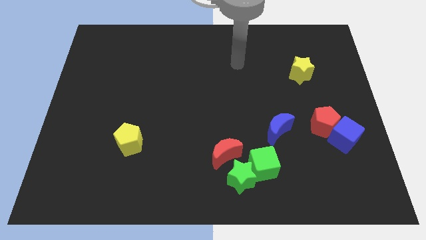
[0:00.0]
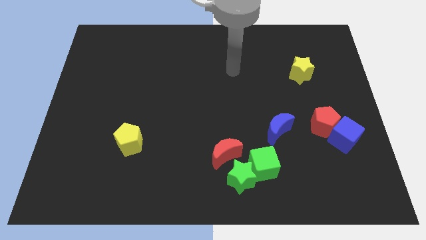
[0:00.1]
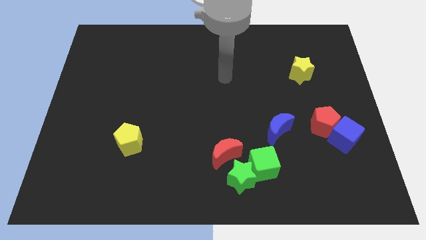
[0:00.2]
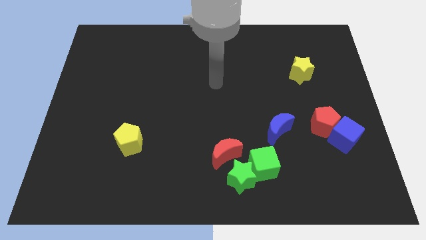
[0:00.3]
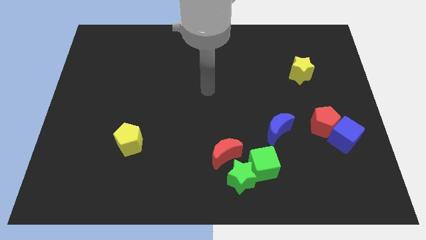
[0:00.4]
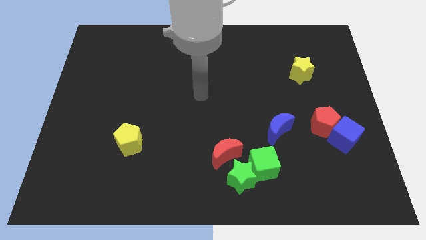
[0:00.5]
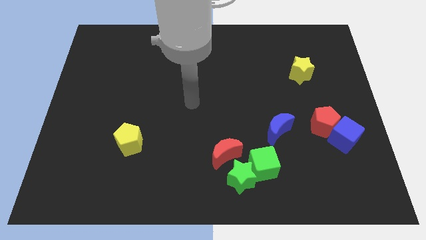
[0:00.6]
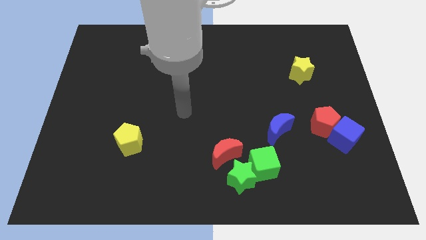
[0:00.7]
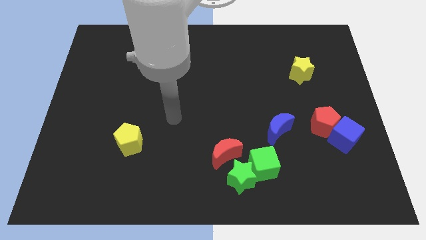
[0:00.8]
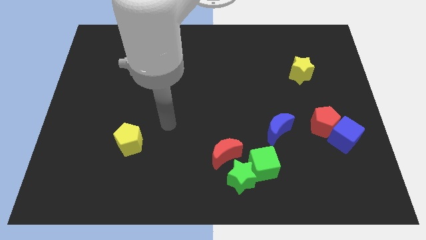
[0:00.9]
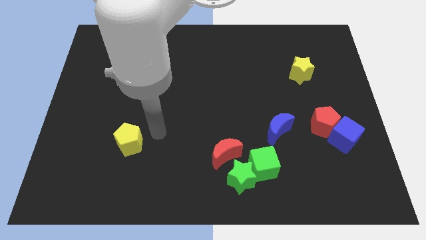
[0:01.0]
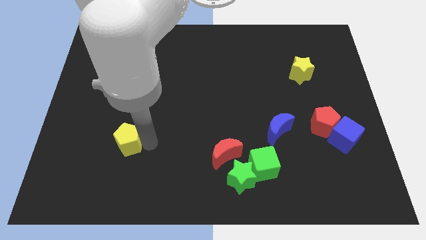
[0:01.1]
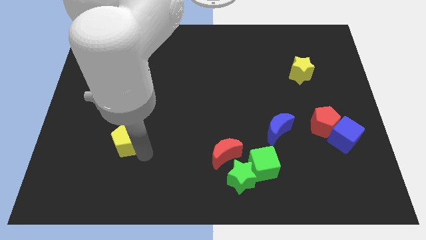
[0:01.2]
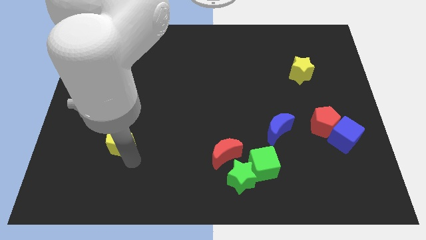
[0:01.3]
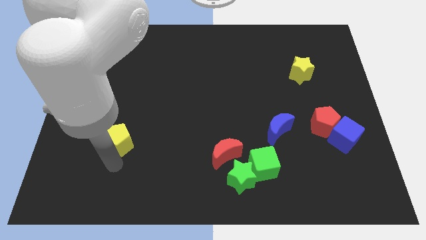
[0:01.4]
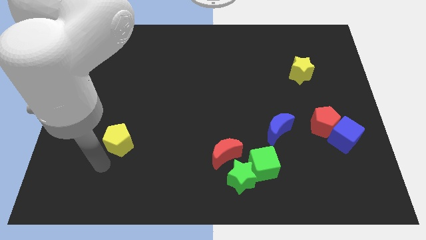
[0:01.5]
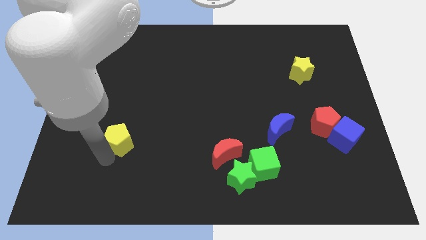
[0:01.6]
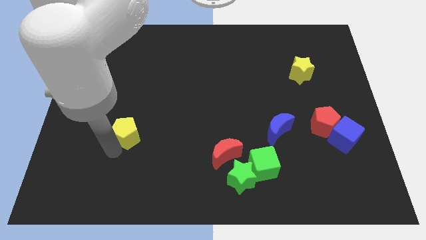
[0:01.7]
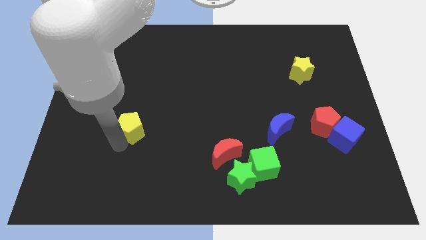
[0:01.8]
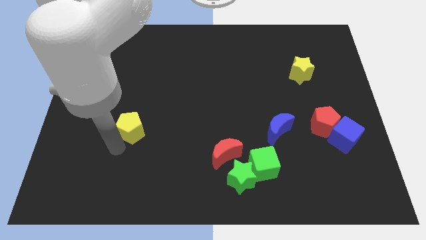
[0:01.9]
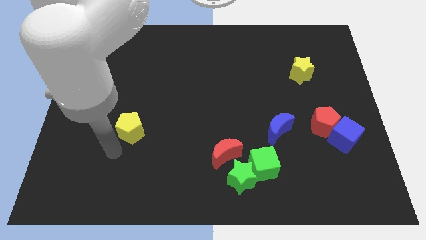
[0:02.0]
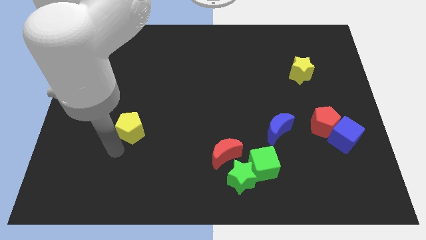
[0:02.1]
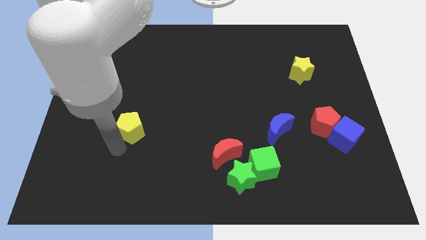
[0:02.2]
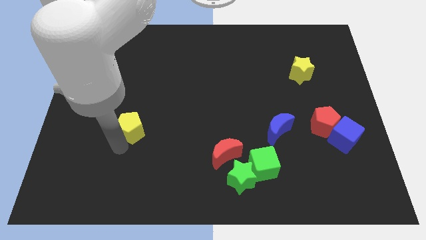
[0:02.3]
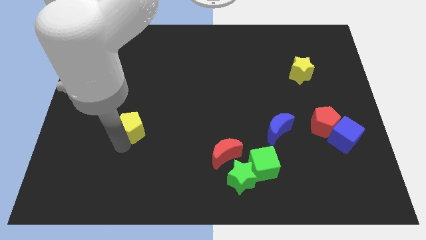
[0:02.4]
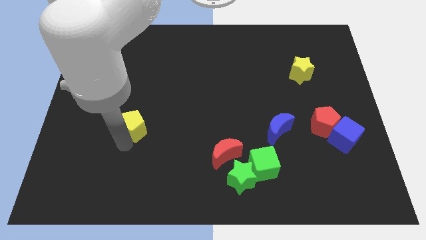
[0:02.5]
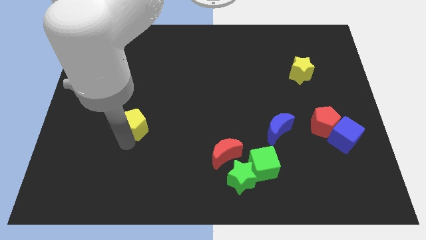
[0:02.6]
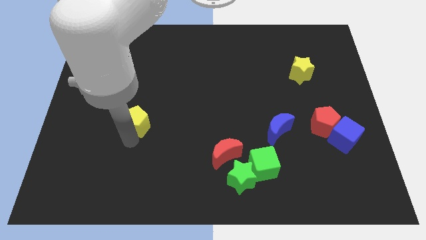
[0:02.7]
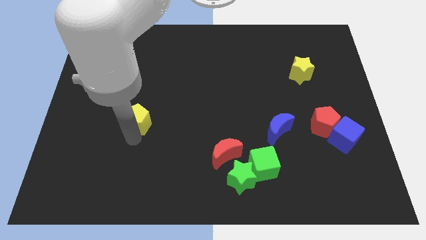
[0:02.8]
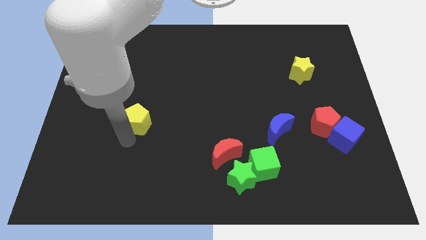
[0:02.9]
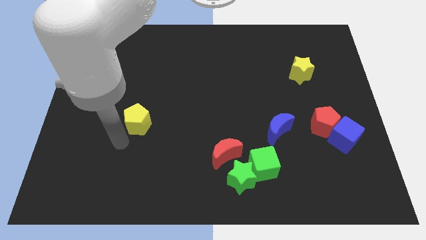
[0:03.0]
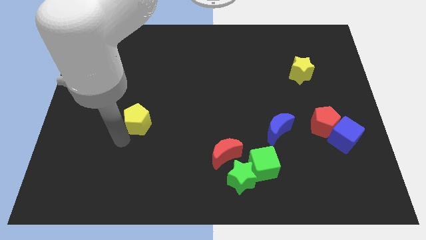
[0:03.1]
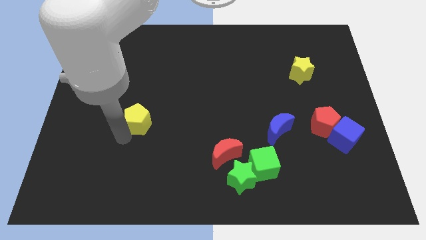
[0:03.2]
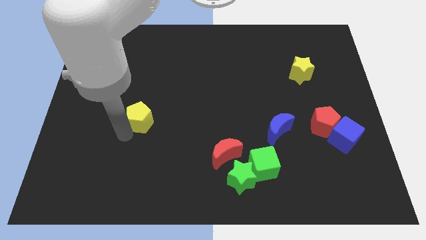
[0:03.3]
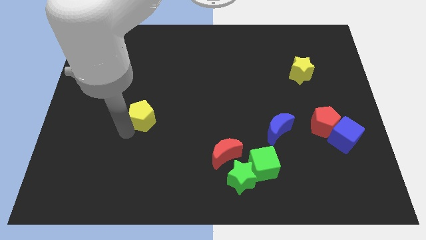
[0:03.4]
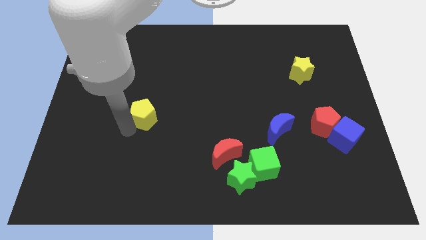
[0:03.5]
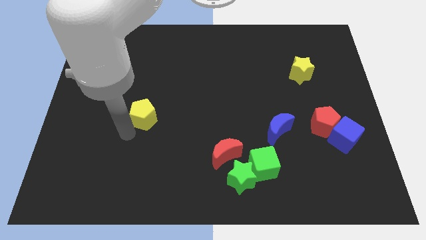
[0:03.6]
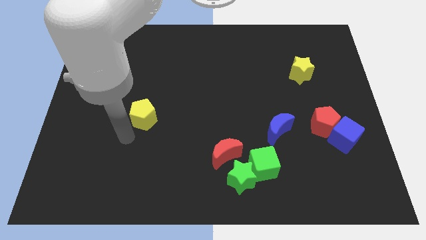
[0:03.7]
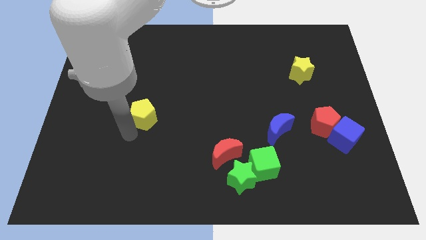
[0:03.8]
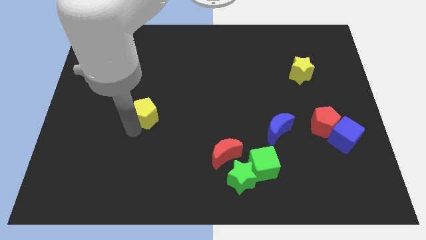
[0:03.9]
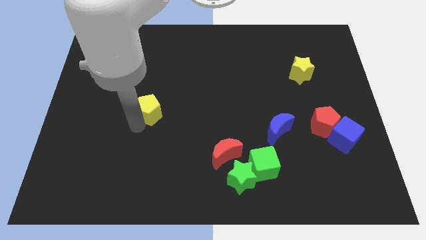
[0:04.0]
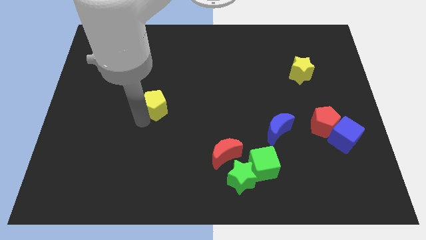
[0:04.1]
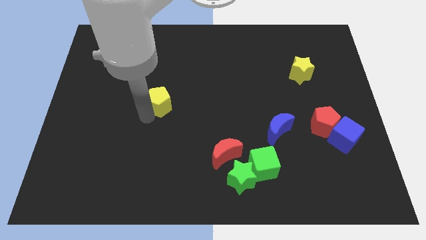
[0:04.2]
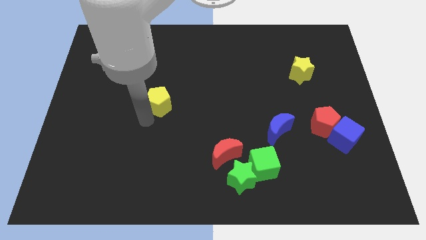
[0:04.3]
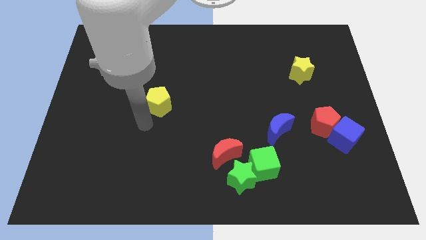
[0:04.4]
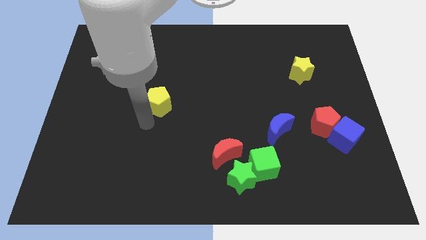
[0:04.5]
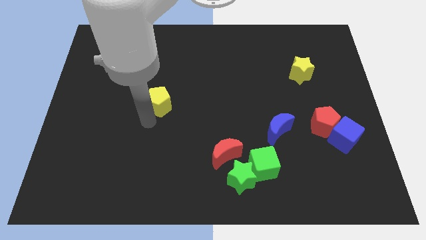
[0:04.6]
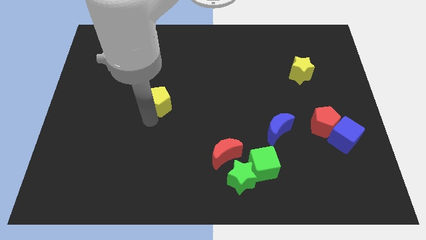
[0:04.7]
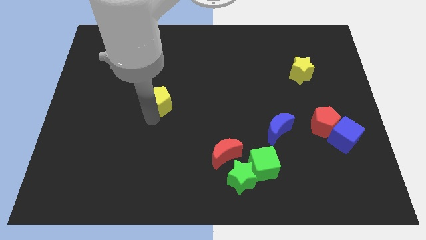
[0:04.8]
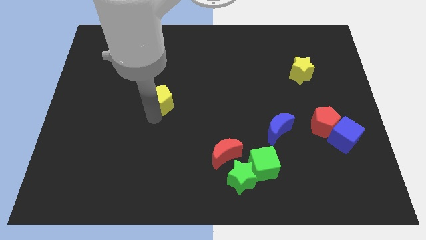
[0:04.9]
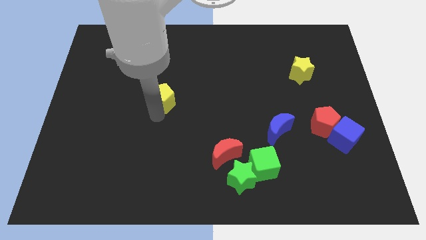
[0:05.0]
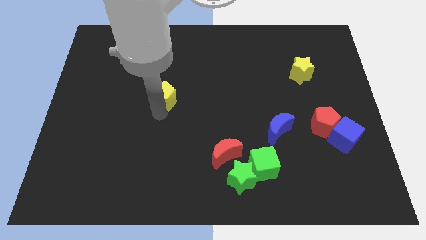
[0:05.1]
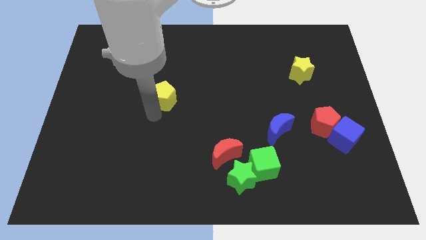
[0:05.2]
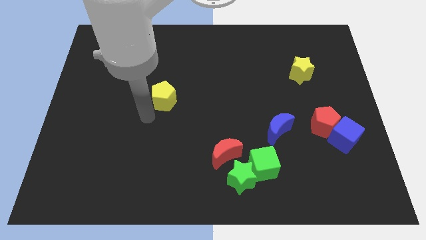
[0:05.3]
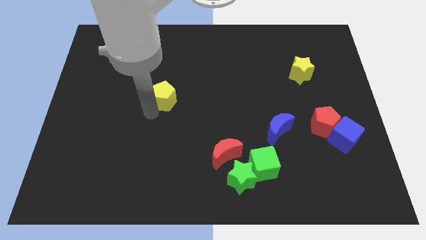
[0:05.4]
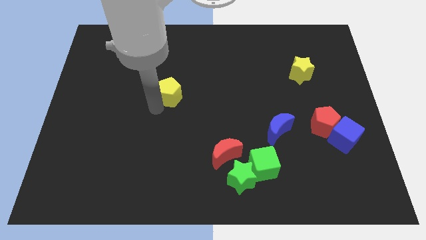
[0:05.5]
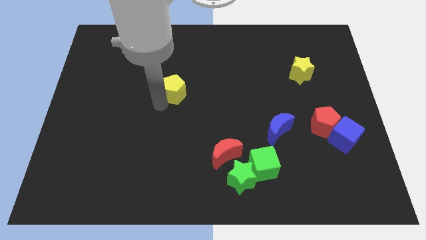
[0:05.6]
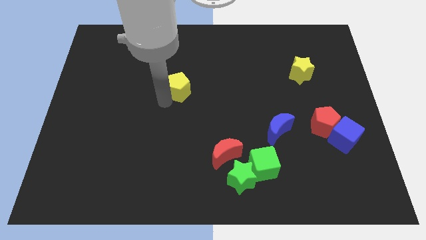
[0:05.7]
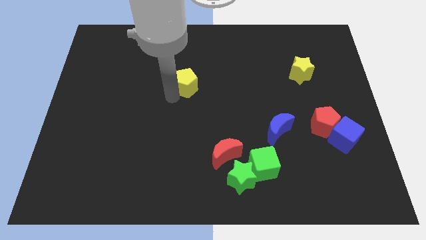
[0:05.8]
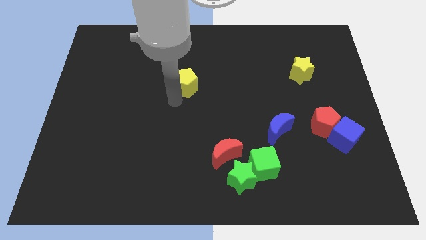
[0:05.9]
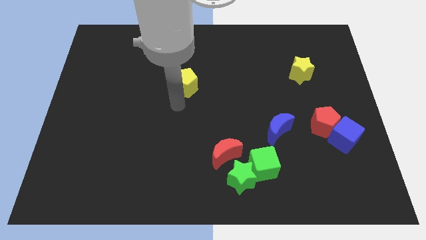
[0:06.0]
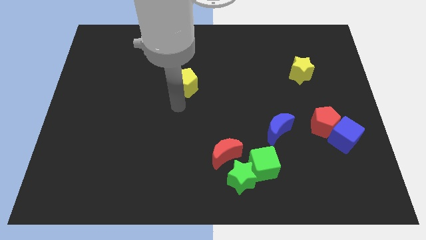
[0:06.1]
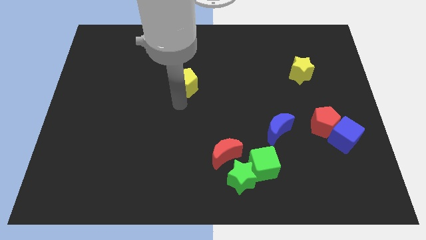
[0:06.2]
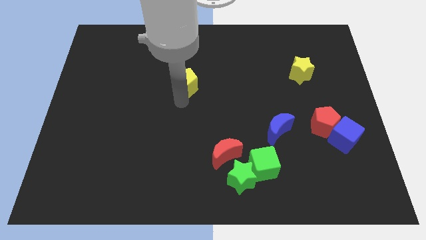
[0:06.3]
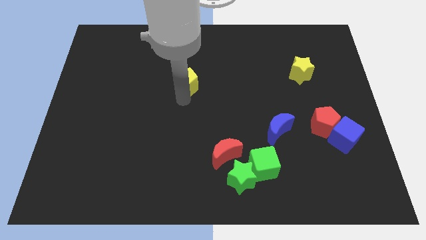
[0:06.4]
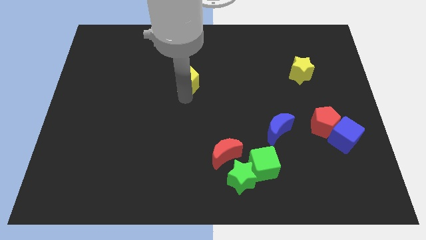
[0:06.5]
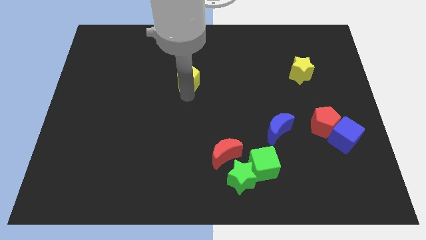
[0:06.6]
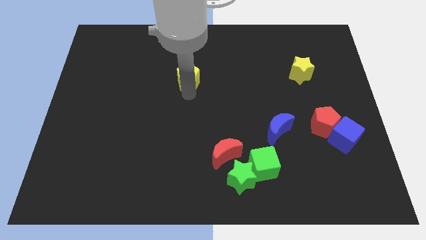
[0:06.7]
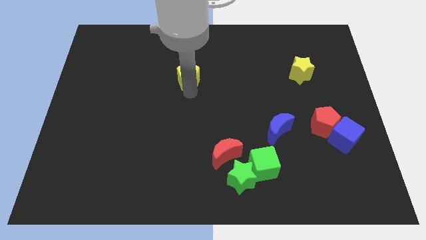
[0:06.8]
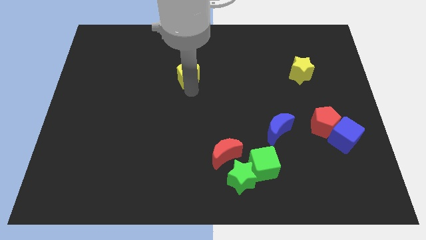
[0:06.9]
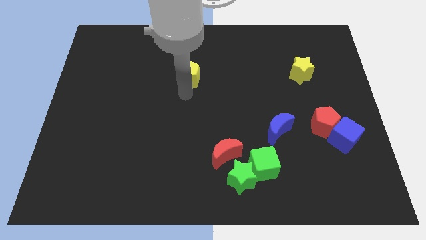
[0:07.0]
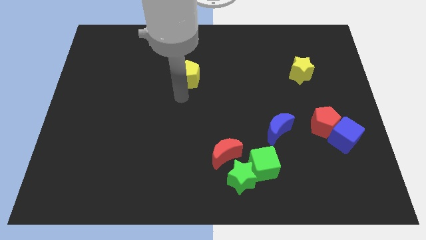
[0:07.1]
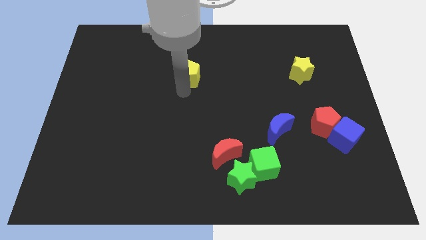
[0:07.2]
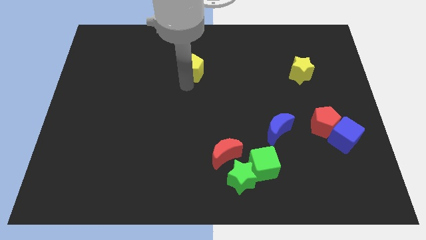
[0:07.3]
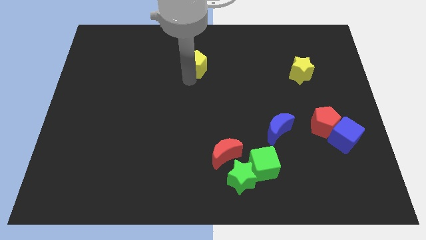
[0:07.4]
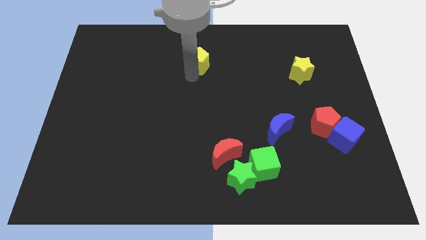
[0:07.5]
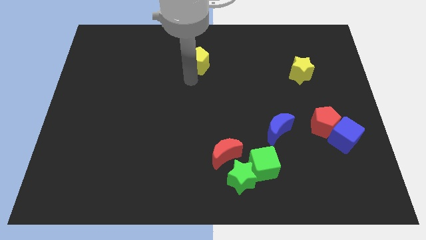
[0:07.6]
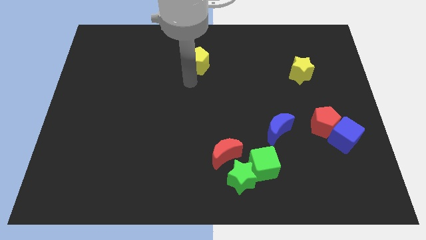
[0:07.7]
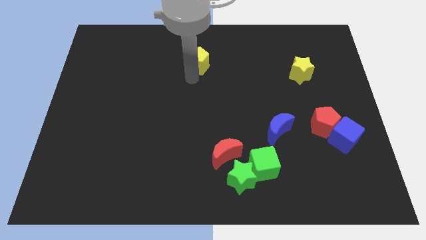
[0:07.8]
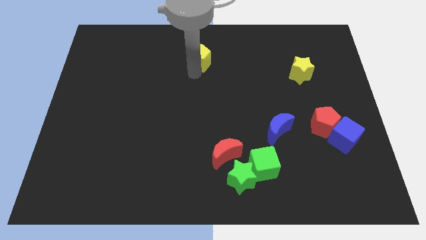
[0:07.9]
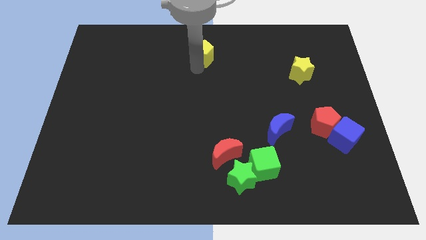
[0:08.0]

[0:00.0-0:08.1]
slide the yellow pentagon to the top
